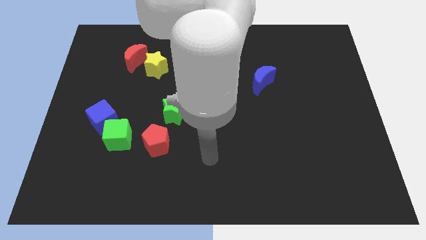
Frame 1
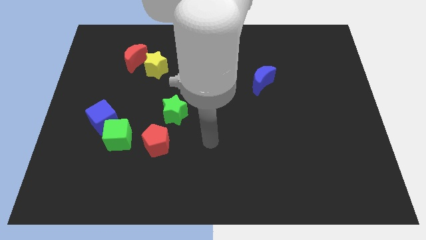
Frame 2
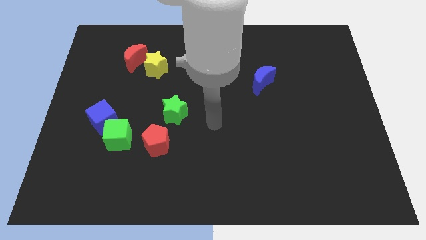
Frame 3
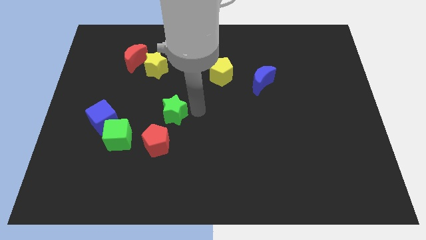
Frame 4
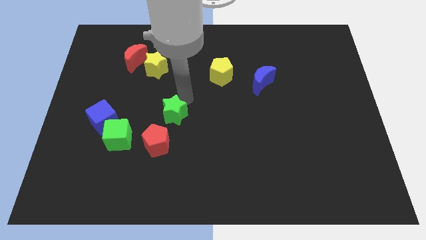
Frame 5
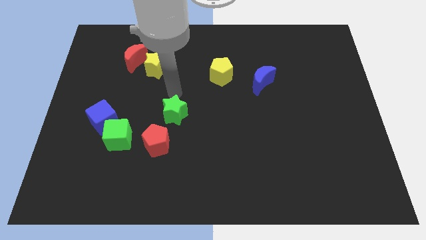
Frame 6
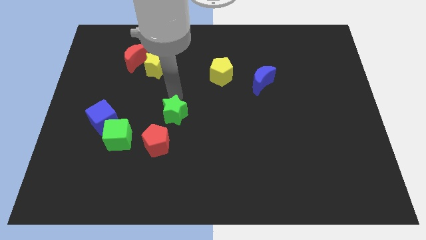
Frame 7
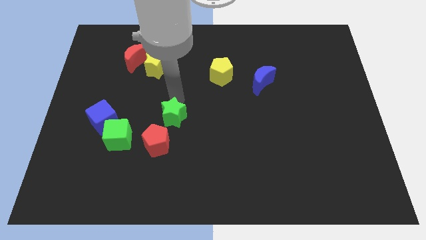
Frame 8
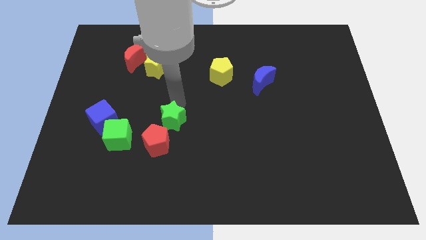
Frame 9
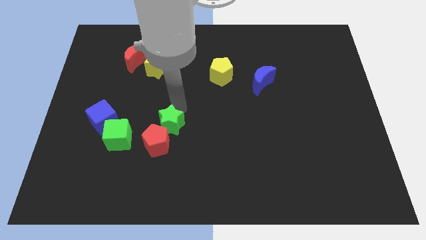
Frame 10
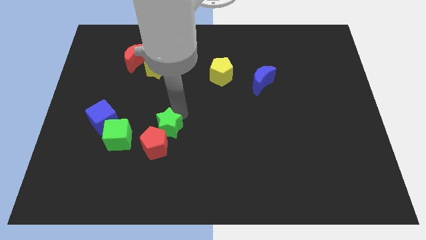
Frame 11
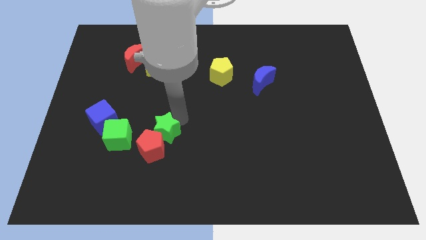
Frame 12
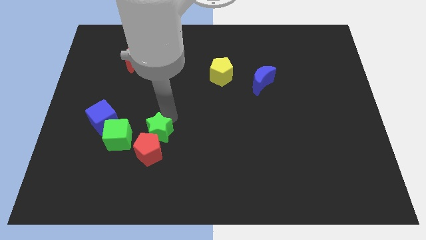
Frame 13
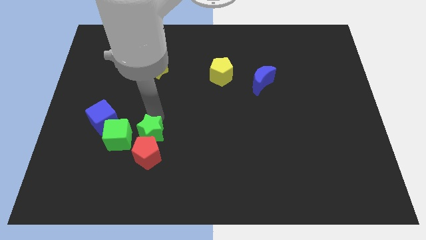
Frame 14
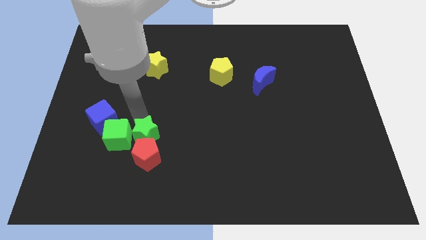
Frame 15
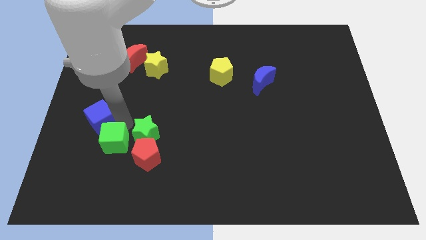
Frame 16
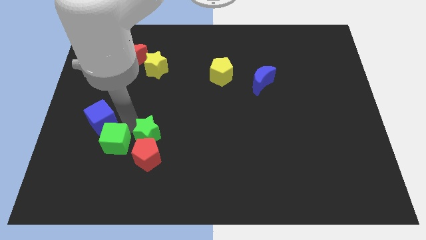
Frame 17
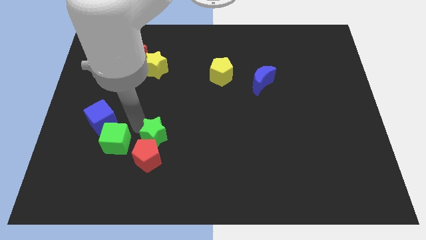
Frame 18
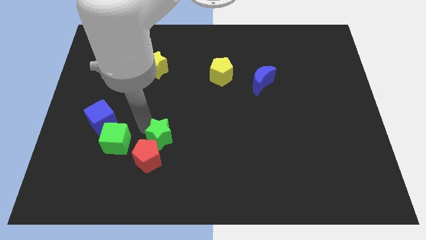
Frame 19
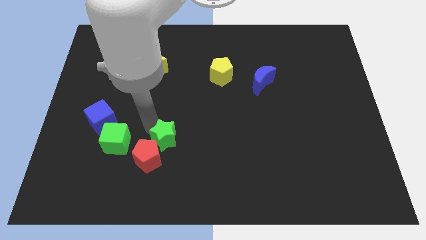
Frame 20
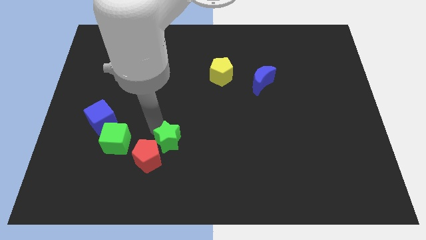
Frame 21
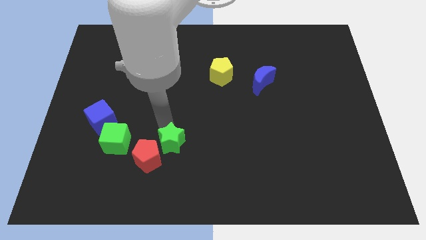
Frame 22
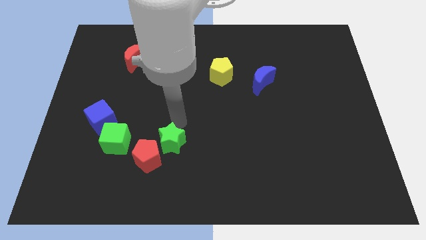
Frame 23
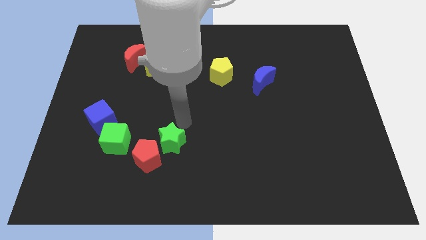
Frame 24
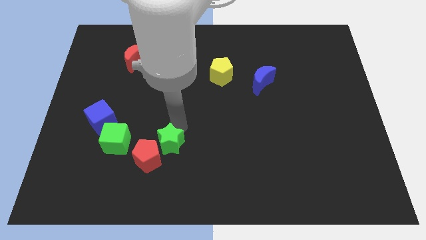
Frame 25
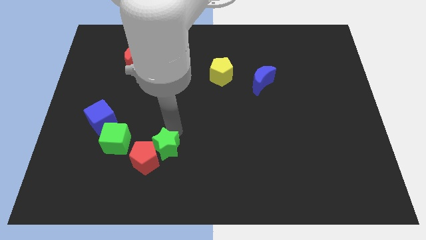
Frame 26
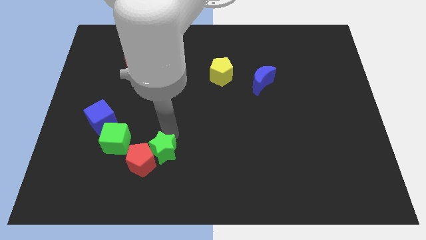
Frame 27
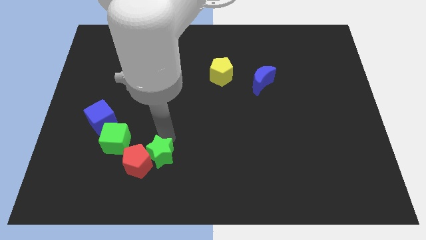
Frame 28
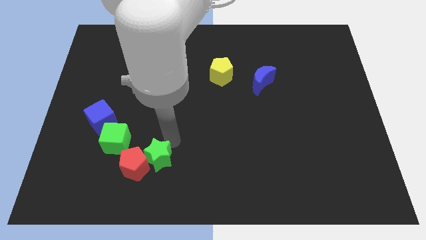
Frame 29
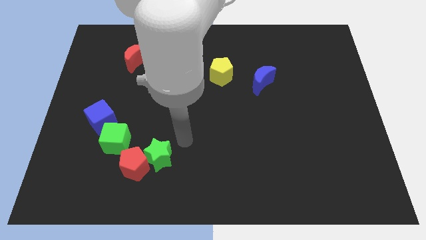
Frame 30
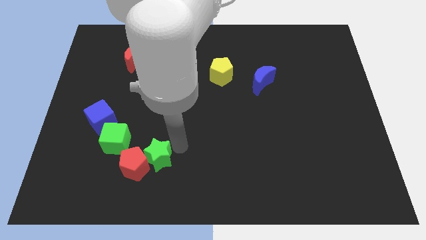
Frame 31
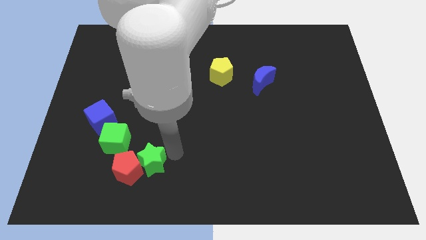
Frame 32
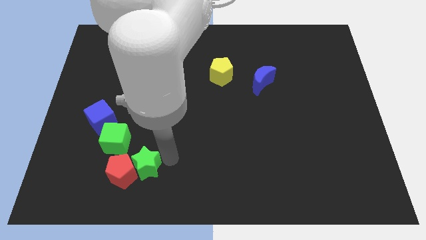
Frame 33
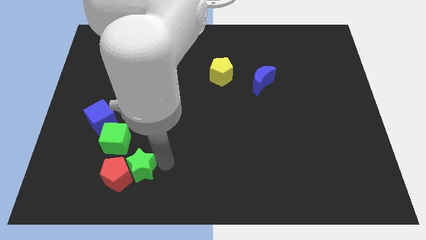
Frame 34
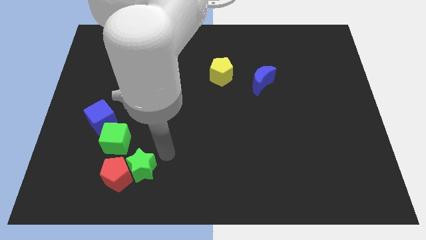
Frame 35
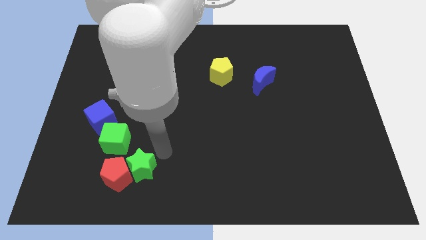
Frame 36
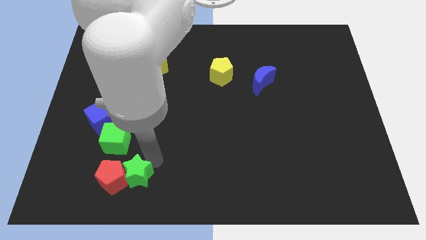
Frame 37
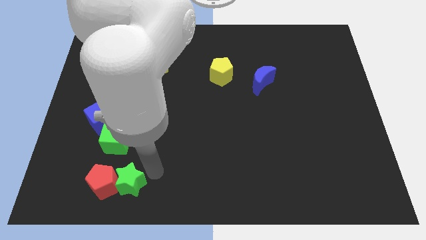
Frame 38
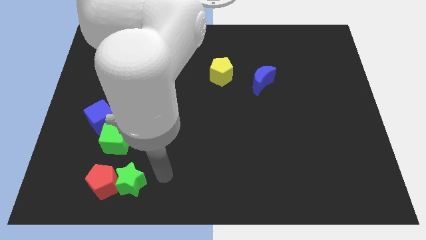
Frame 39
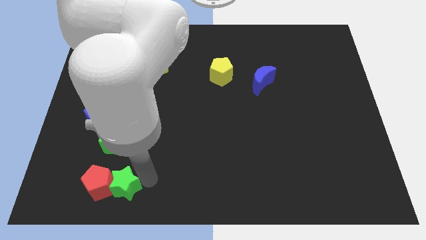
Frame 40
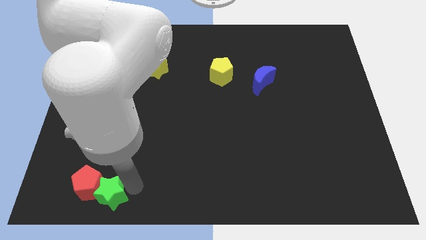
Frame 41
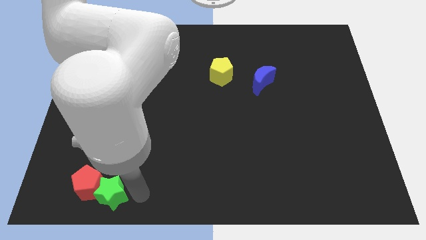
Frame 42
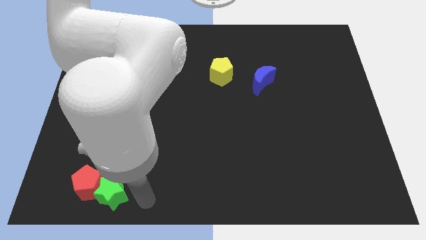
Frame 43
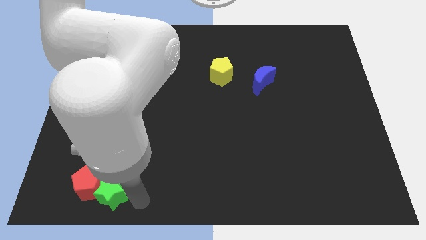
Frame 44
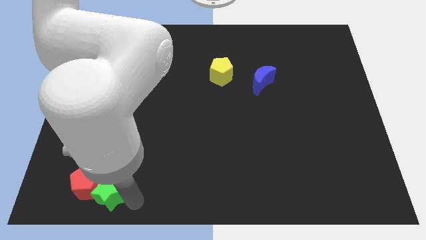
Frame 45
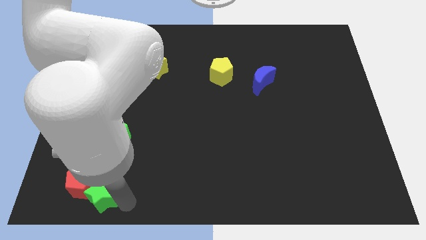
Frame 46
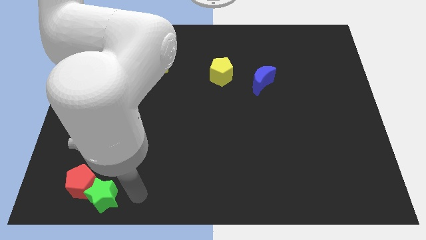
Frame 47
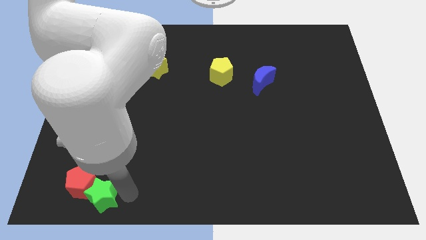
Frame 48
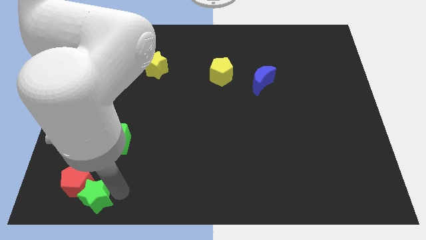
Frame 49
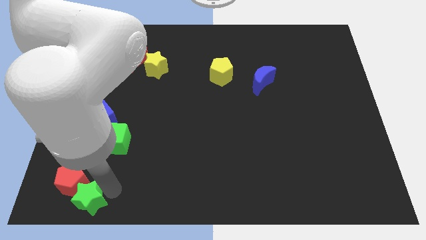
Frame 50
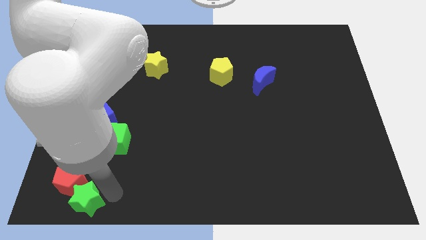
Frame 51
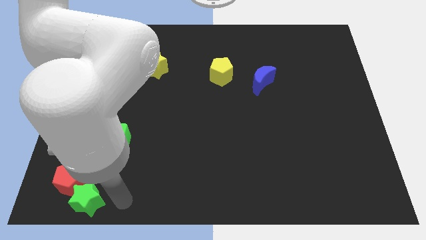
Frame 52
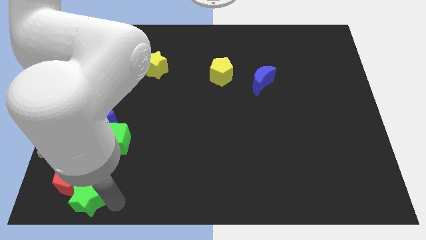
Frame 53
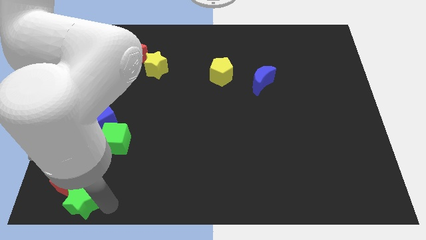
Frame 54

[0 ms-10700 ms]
push the green star to the lower left corner
